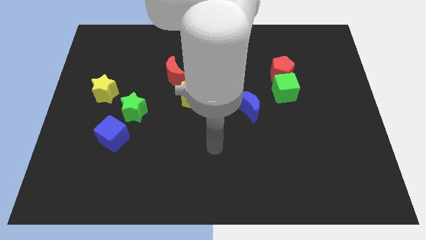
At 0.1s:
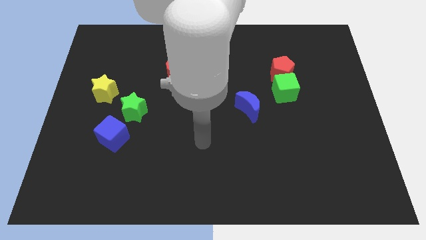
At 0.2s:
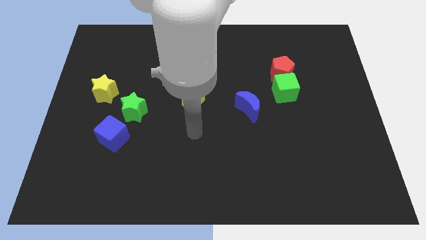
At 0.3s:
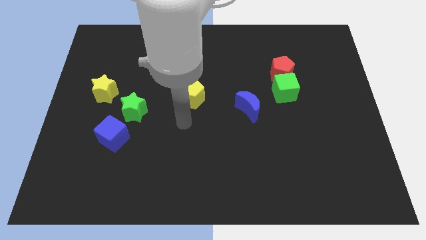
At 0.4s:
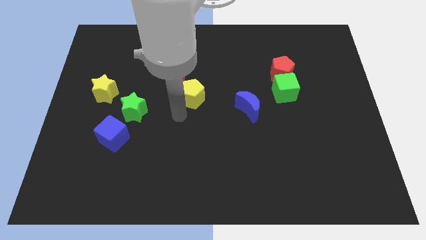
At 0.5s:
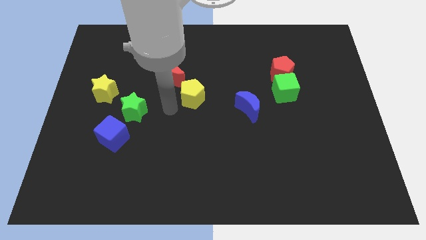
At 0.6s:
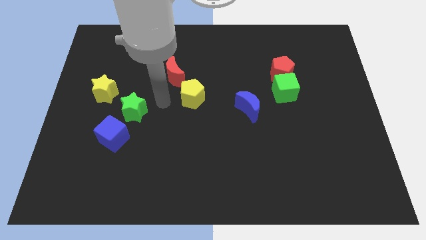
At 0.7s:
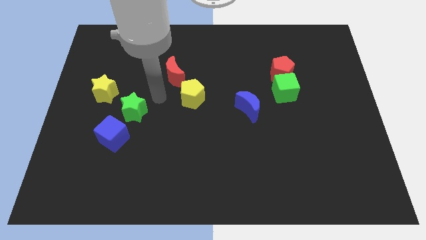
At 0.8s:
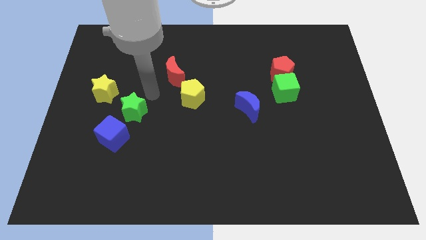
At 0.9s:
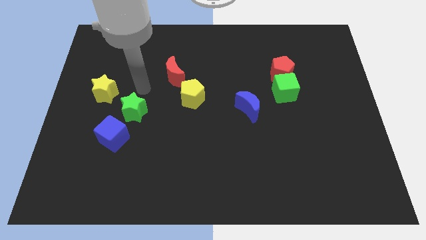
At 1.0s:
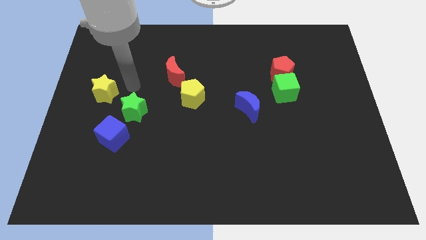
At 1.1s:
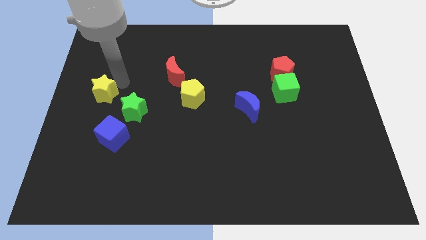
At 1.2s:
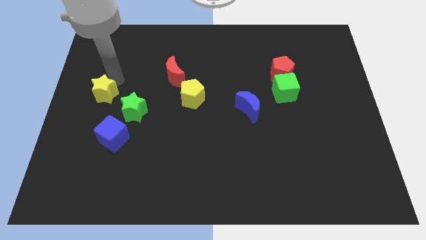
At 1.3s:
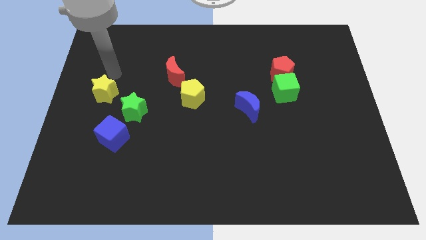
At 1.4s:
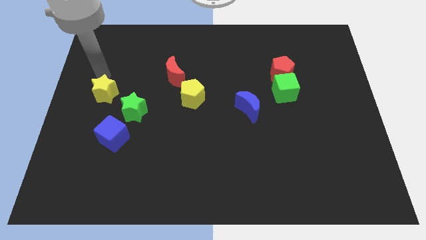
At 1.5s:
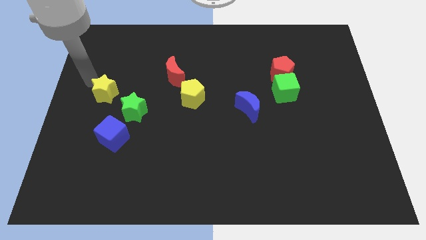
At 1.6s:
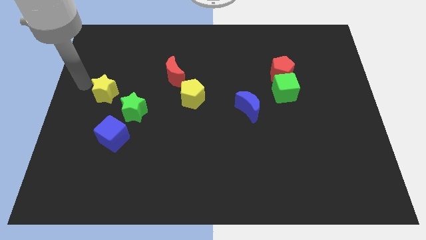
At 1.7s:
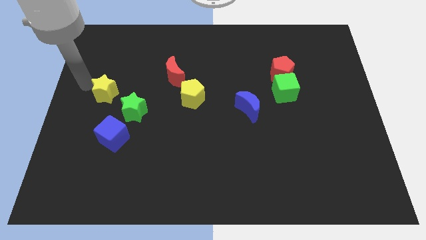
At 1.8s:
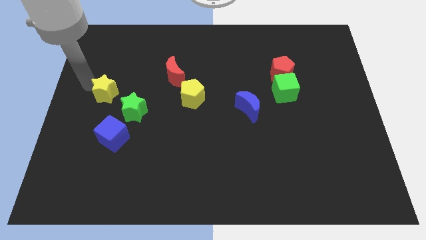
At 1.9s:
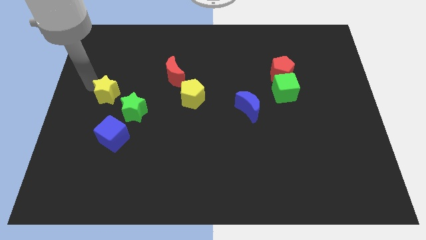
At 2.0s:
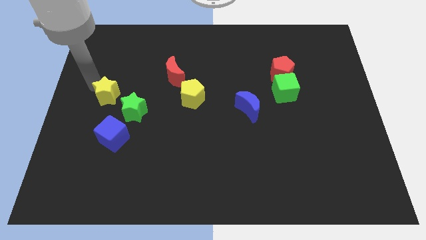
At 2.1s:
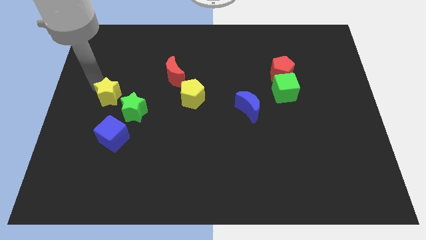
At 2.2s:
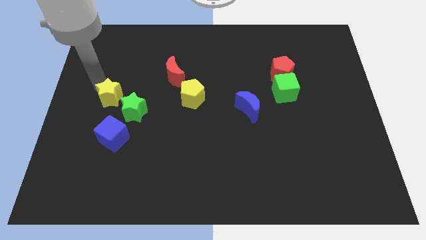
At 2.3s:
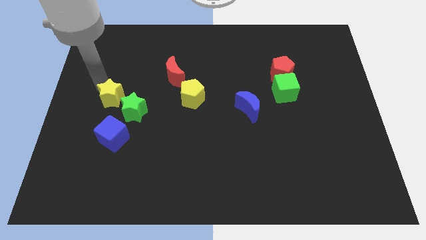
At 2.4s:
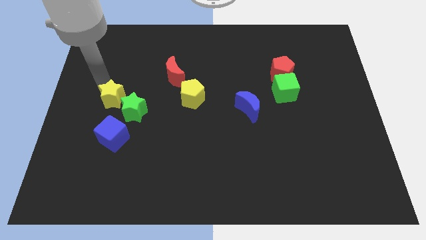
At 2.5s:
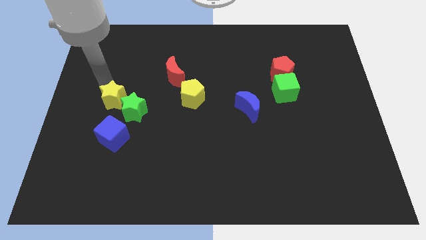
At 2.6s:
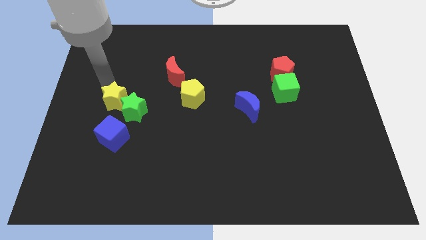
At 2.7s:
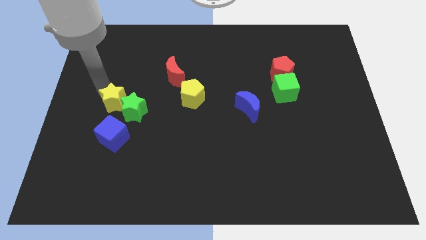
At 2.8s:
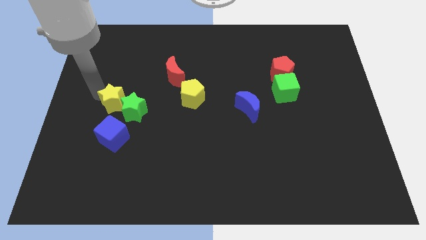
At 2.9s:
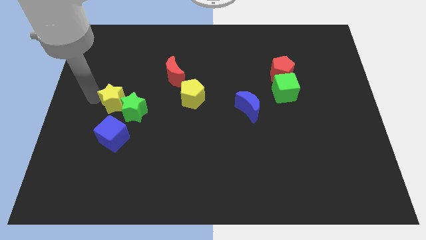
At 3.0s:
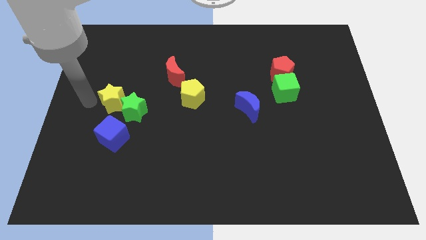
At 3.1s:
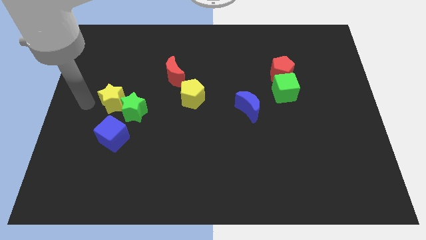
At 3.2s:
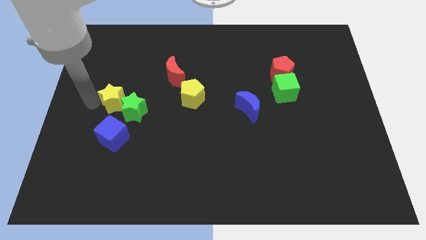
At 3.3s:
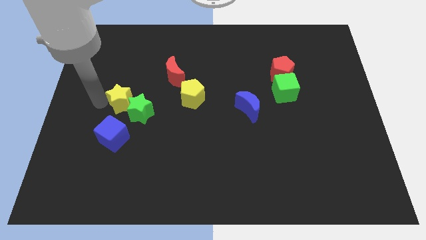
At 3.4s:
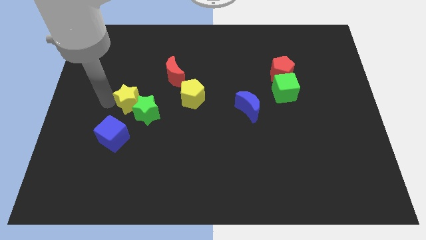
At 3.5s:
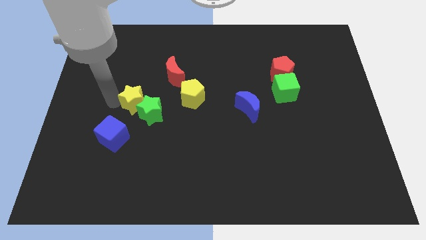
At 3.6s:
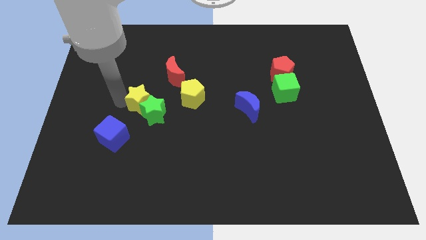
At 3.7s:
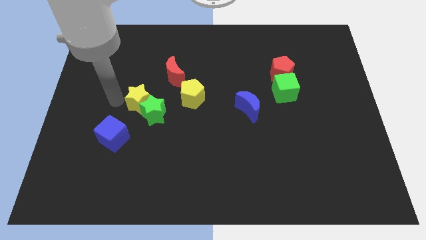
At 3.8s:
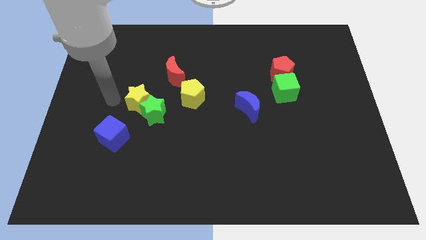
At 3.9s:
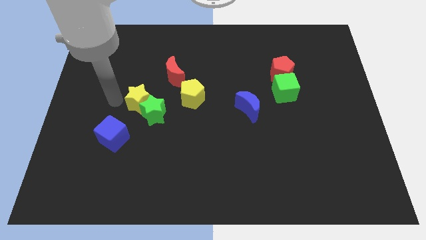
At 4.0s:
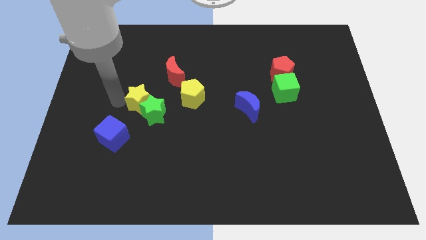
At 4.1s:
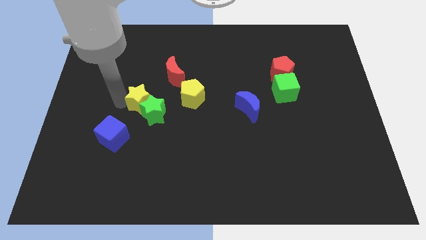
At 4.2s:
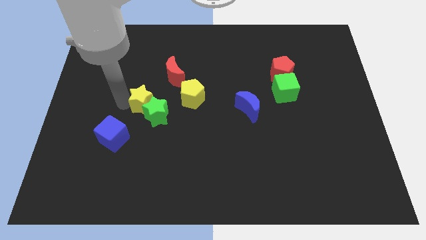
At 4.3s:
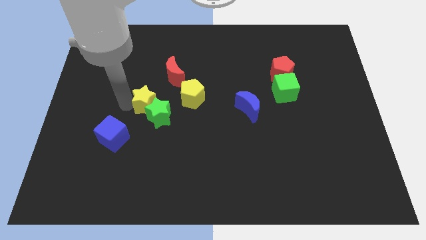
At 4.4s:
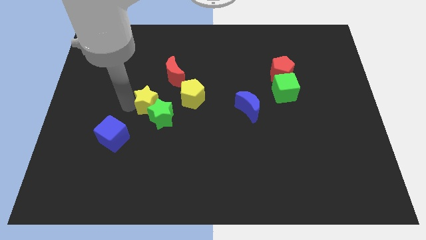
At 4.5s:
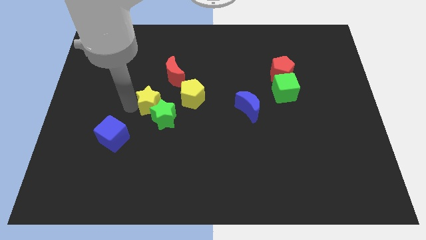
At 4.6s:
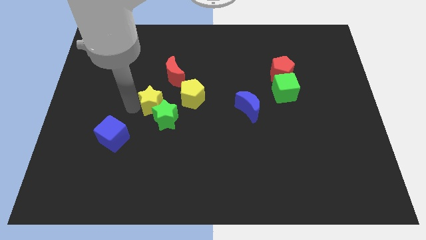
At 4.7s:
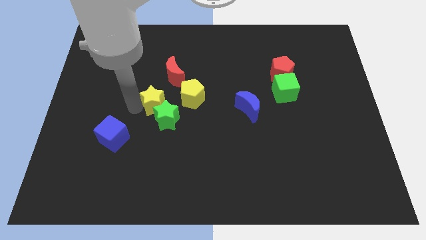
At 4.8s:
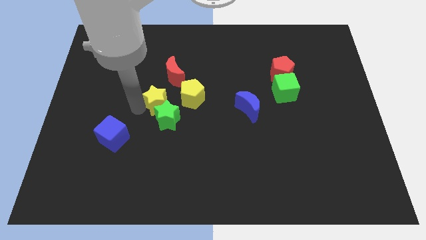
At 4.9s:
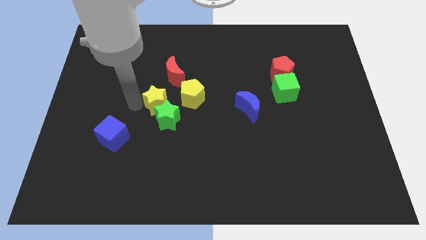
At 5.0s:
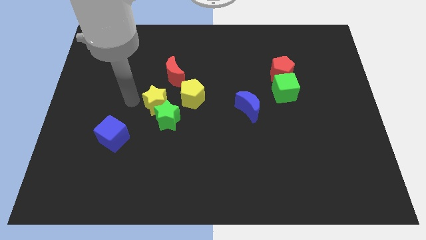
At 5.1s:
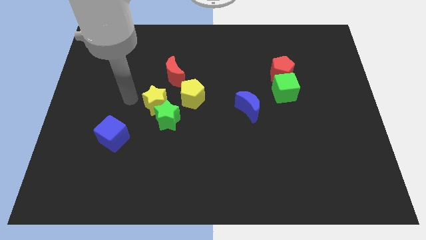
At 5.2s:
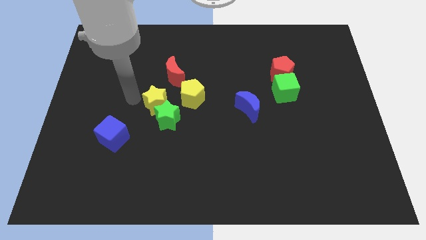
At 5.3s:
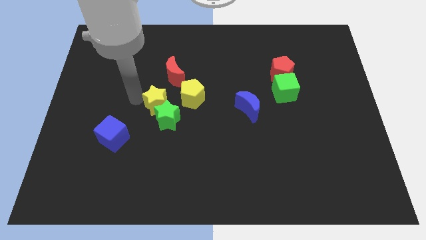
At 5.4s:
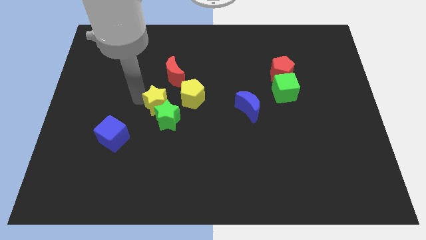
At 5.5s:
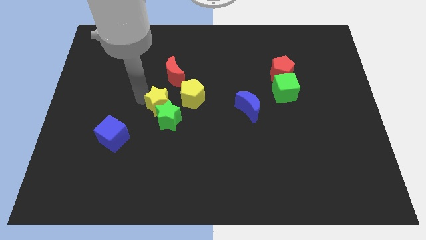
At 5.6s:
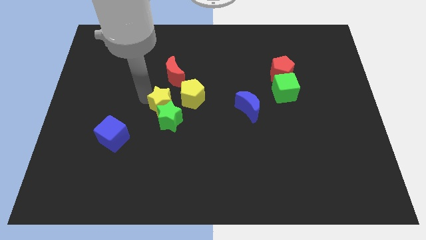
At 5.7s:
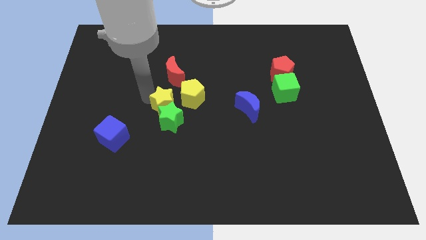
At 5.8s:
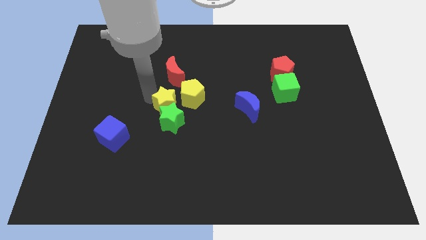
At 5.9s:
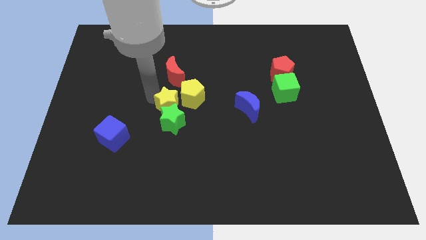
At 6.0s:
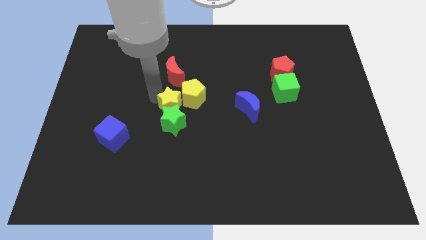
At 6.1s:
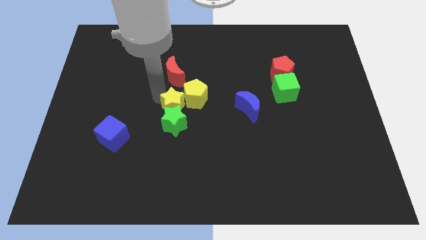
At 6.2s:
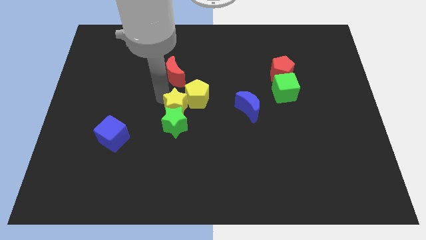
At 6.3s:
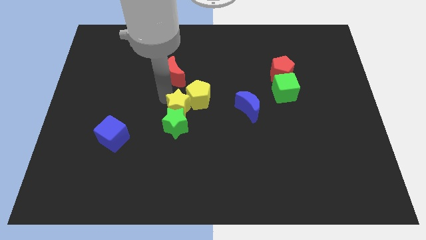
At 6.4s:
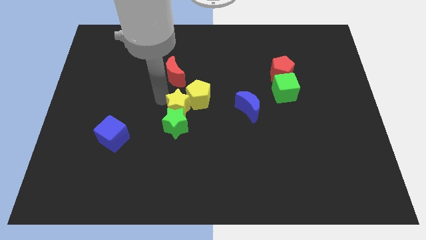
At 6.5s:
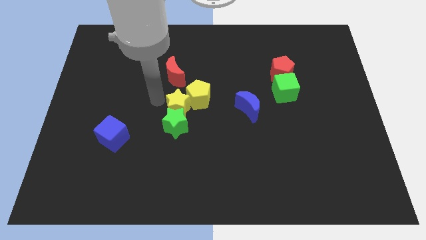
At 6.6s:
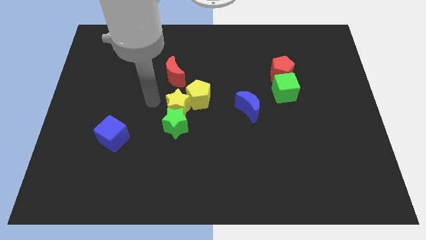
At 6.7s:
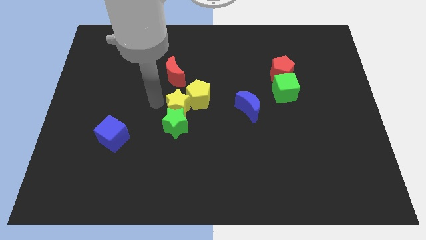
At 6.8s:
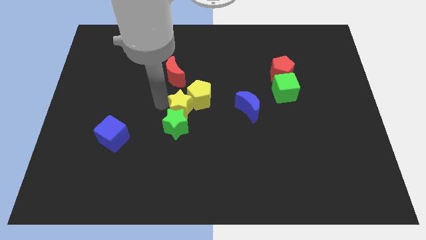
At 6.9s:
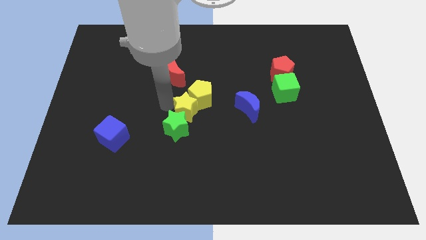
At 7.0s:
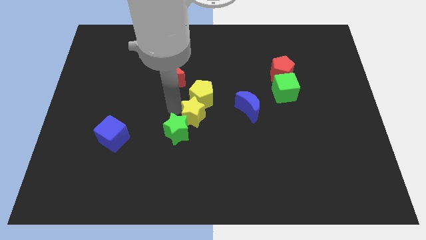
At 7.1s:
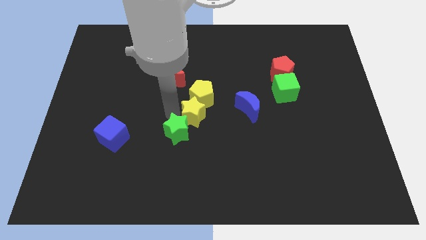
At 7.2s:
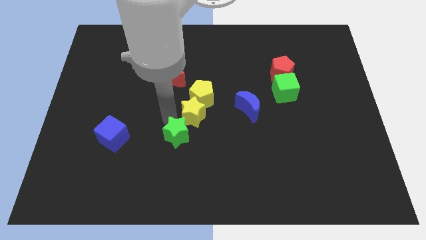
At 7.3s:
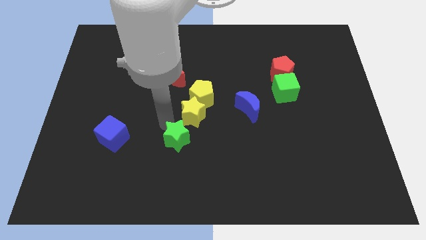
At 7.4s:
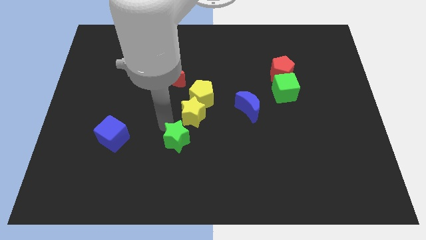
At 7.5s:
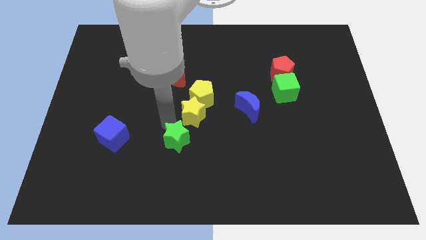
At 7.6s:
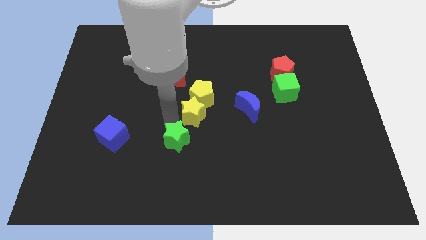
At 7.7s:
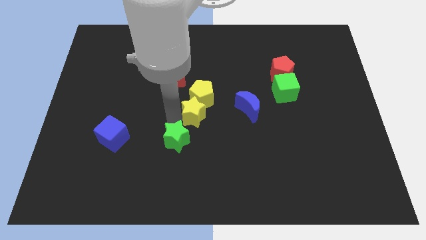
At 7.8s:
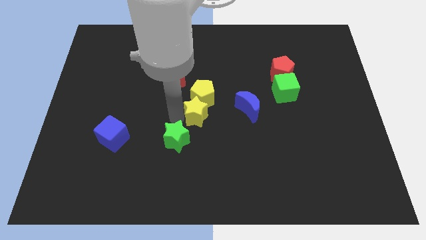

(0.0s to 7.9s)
push the yellow star to the right
